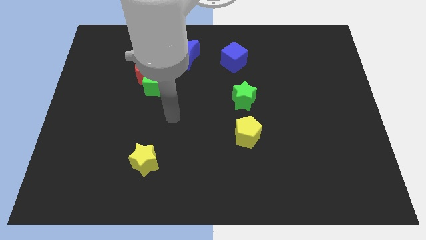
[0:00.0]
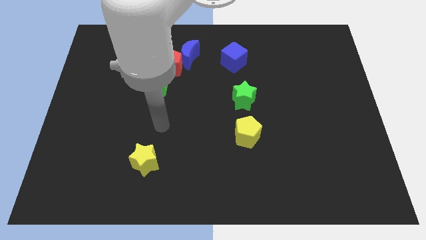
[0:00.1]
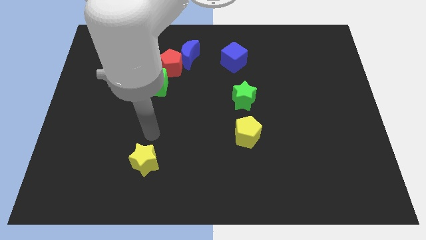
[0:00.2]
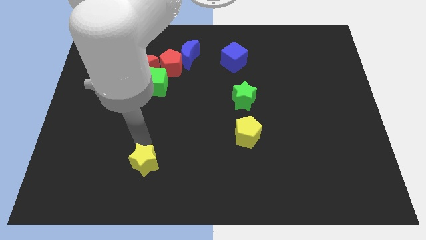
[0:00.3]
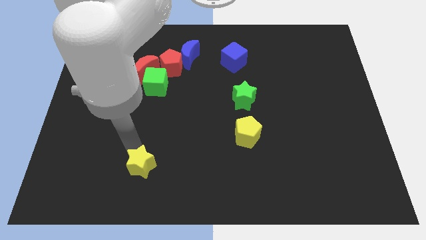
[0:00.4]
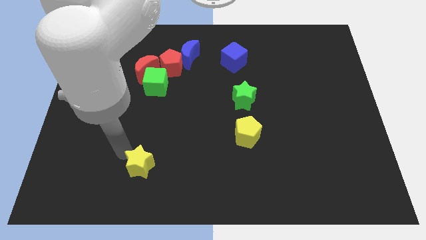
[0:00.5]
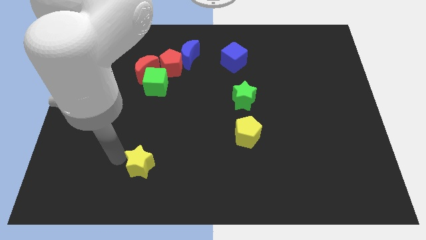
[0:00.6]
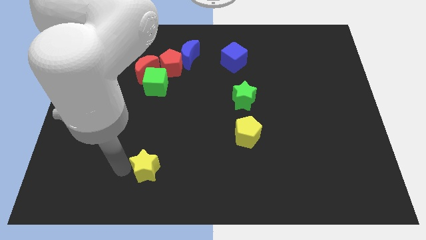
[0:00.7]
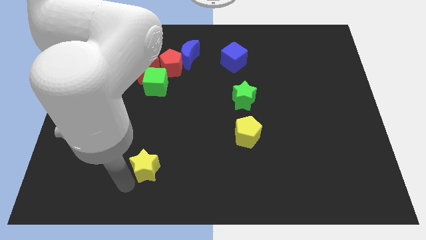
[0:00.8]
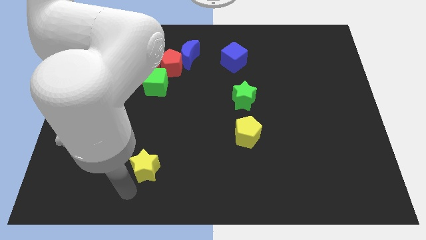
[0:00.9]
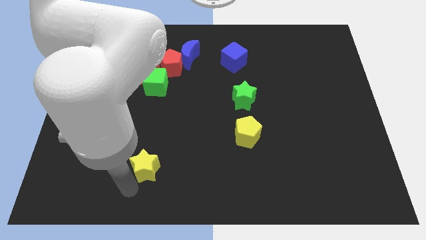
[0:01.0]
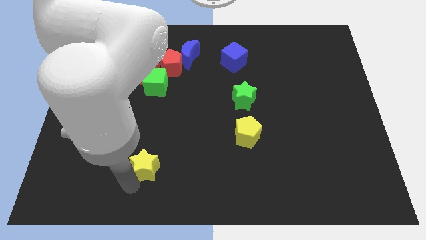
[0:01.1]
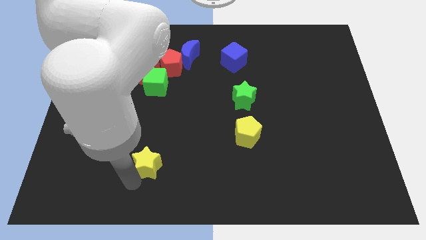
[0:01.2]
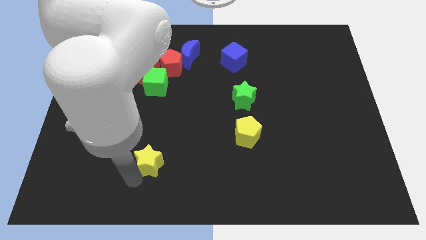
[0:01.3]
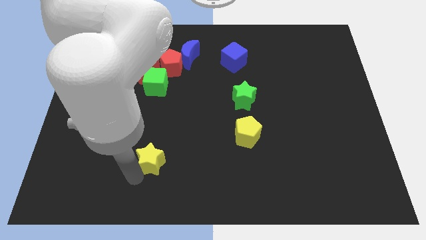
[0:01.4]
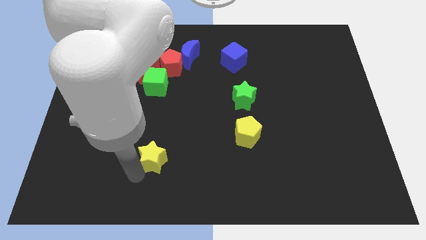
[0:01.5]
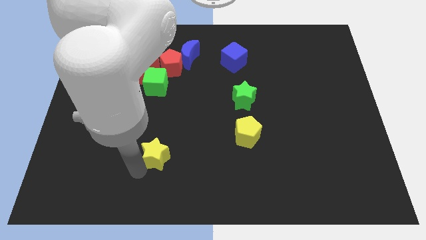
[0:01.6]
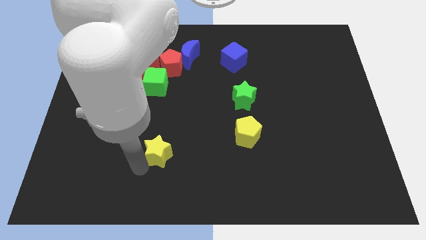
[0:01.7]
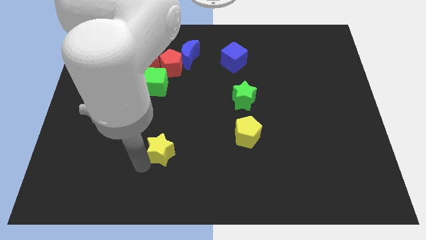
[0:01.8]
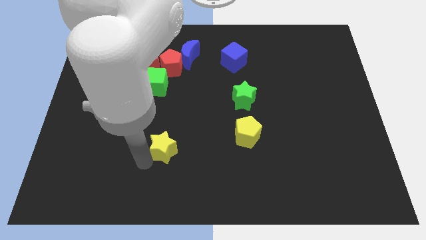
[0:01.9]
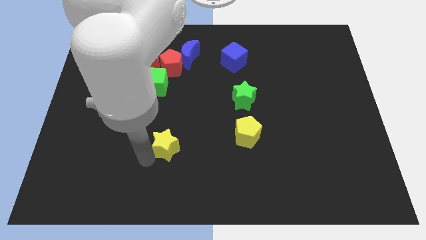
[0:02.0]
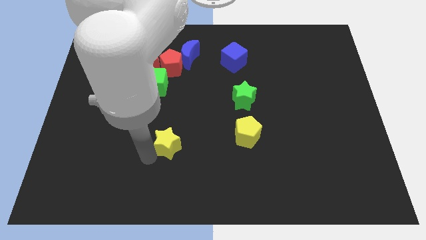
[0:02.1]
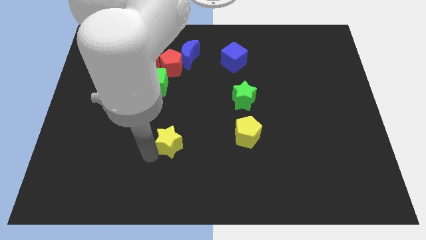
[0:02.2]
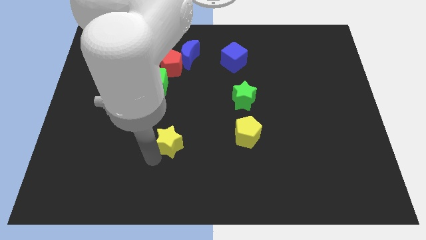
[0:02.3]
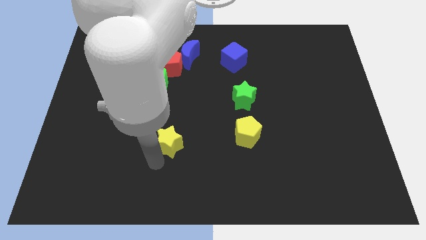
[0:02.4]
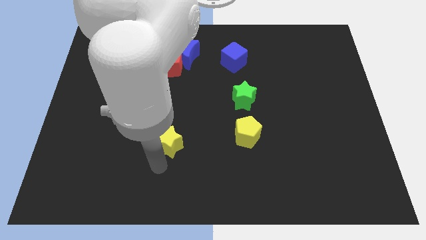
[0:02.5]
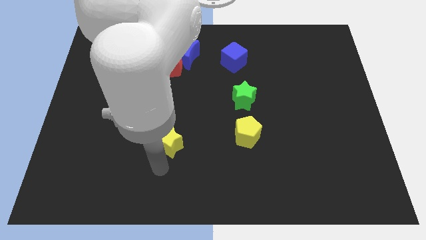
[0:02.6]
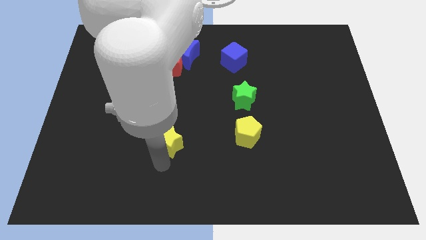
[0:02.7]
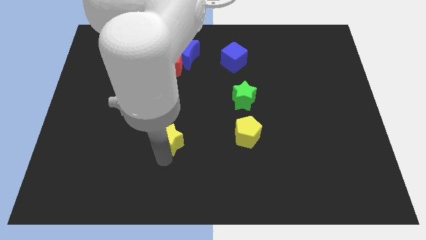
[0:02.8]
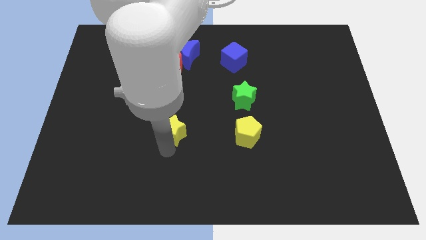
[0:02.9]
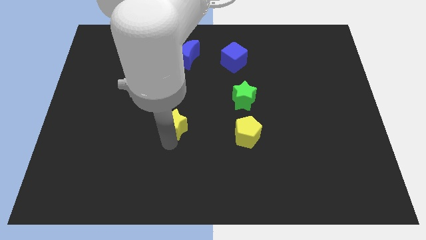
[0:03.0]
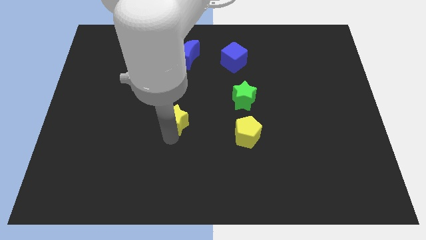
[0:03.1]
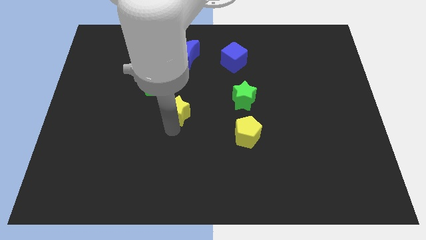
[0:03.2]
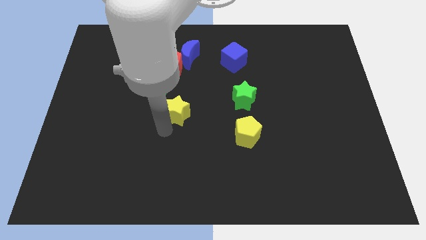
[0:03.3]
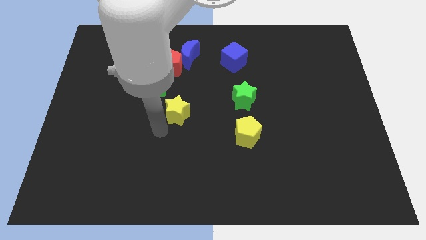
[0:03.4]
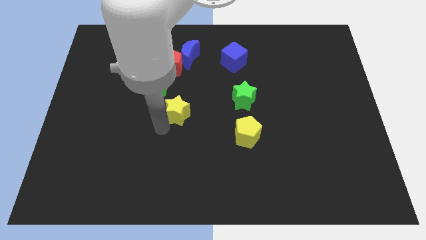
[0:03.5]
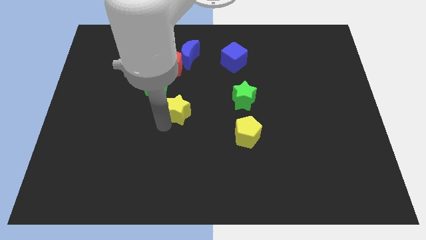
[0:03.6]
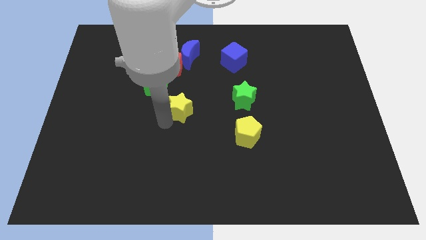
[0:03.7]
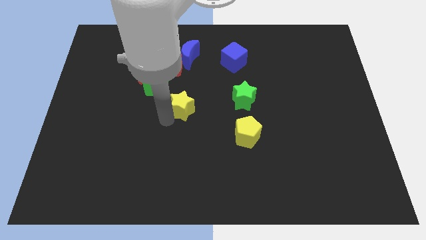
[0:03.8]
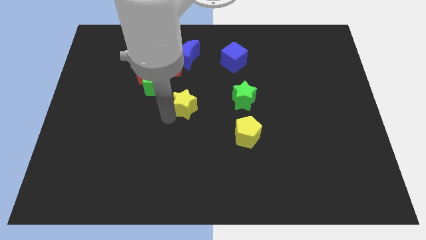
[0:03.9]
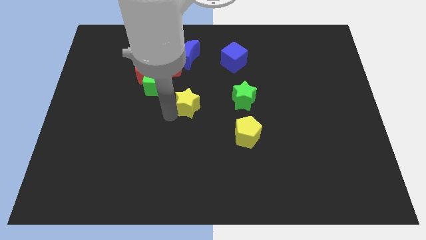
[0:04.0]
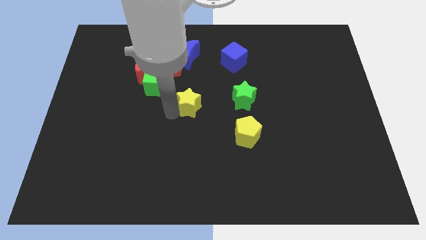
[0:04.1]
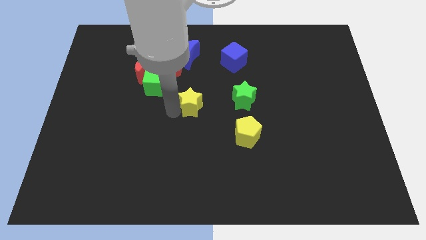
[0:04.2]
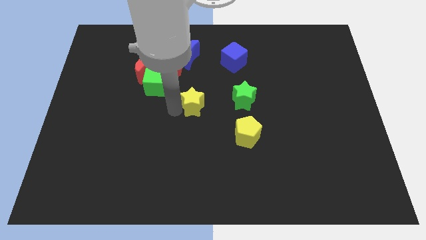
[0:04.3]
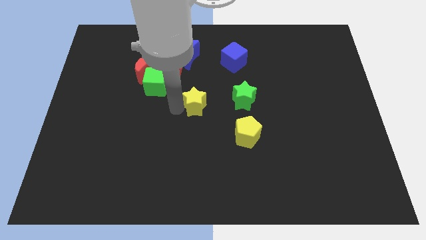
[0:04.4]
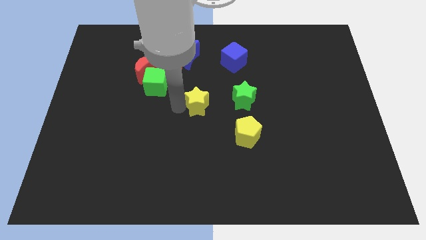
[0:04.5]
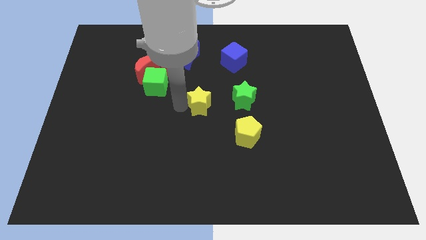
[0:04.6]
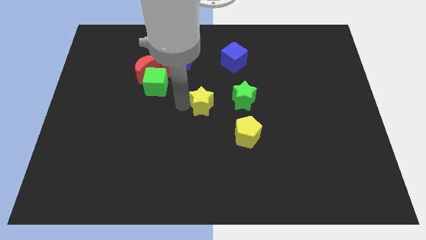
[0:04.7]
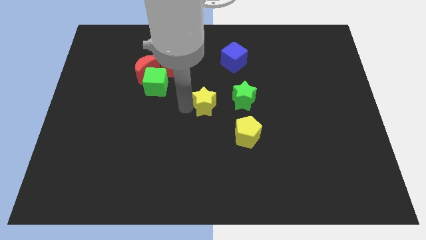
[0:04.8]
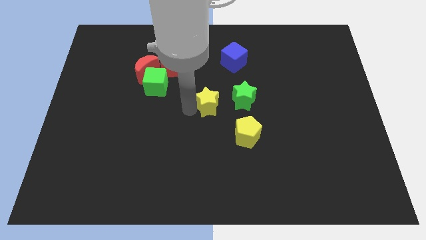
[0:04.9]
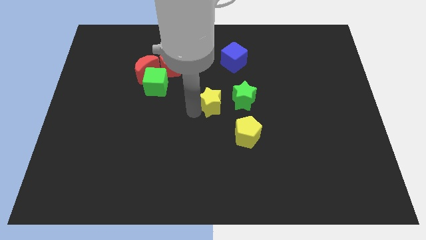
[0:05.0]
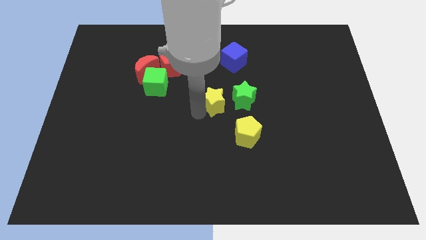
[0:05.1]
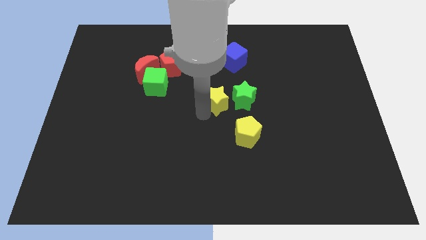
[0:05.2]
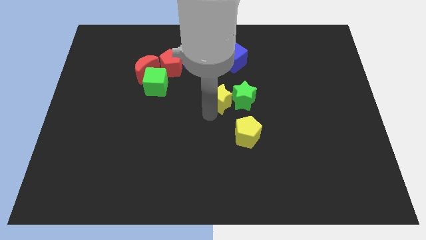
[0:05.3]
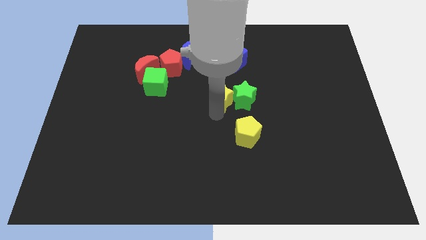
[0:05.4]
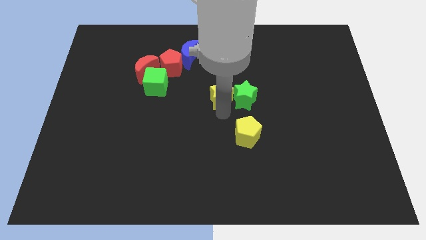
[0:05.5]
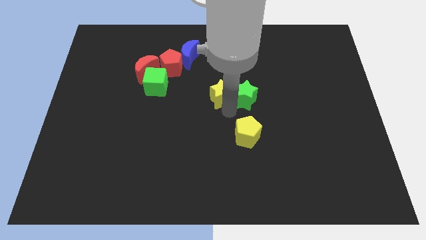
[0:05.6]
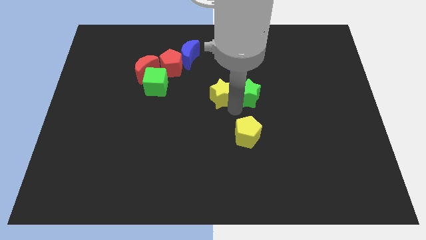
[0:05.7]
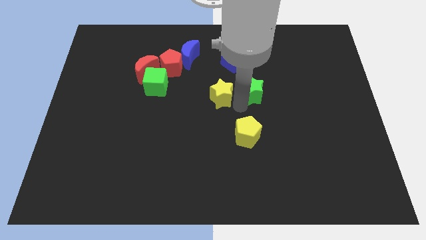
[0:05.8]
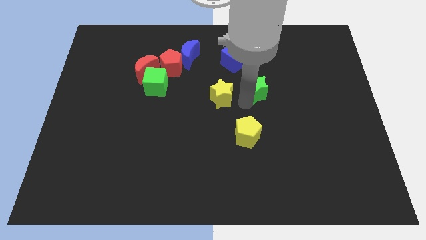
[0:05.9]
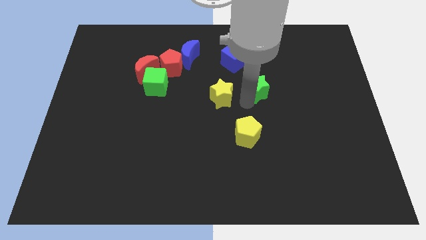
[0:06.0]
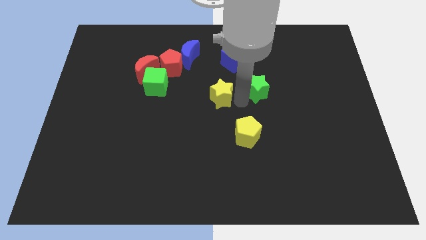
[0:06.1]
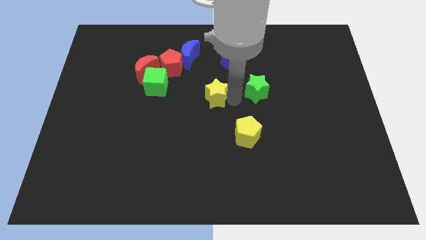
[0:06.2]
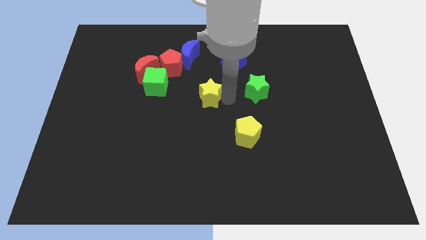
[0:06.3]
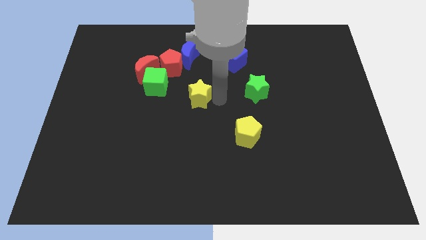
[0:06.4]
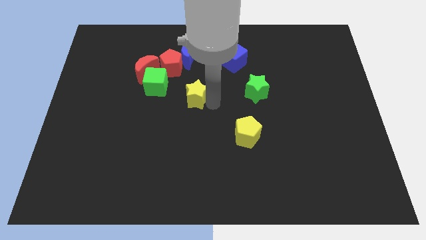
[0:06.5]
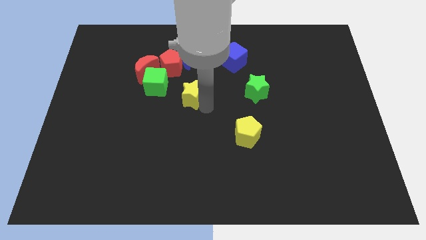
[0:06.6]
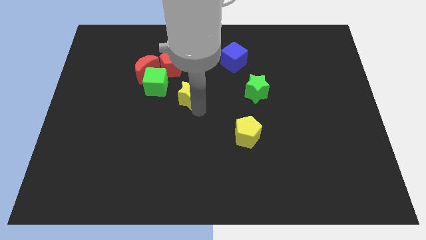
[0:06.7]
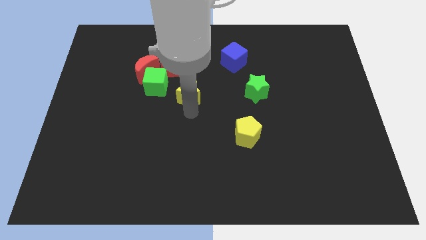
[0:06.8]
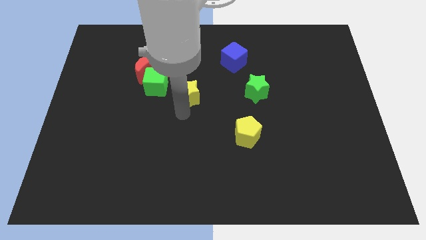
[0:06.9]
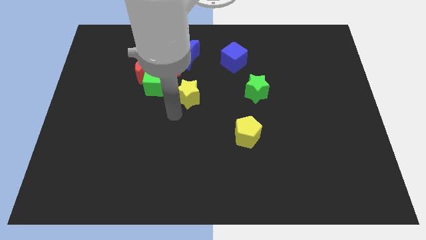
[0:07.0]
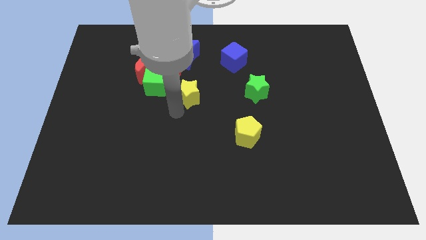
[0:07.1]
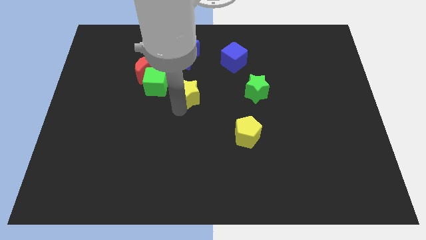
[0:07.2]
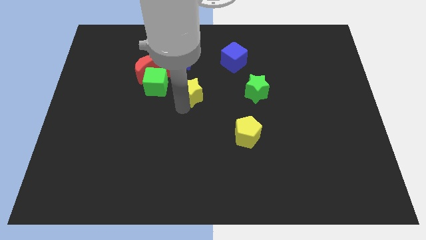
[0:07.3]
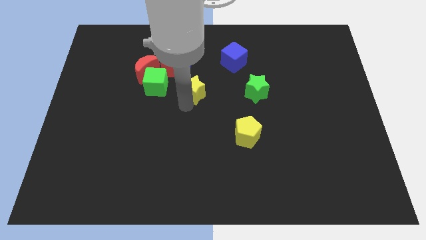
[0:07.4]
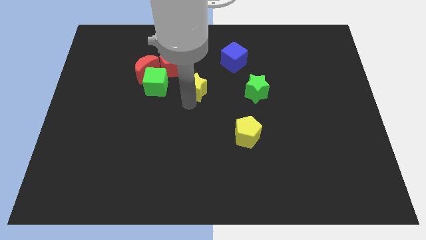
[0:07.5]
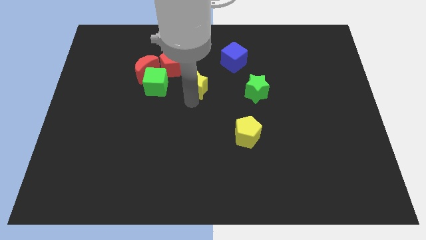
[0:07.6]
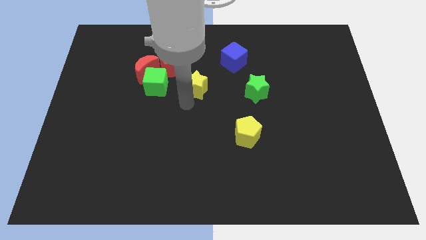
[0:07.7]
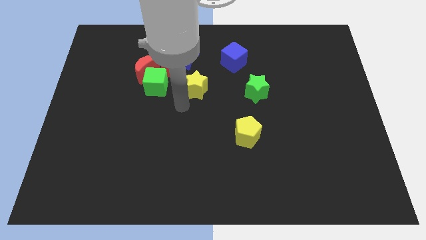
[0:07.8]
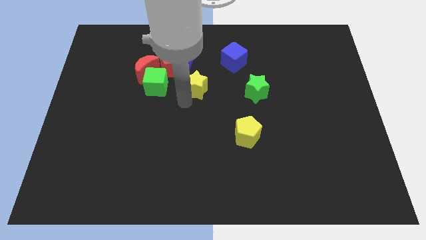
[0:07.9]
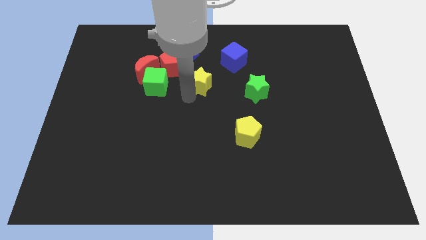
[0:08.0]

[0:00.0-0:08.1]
slide the yellow star diagonally down and to the right of the blue moon

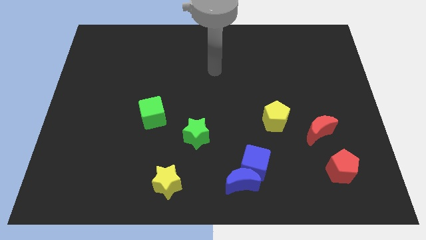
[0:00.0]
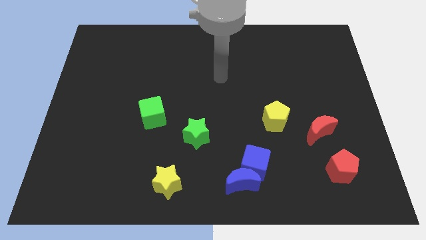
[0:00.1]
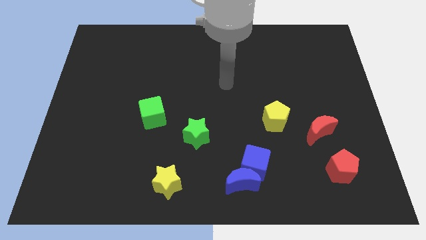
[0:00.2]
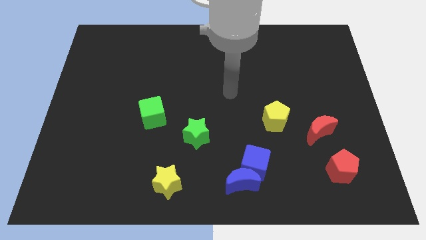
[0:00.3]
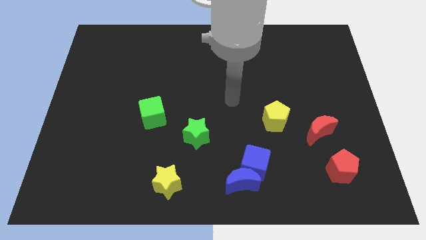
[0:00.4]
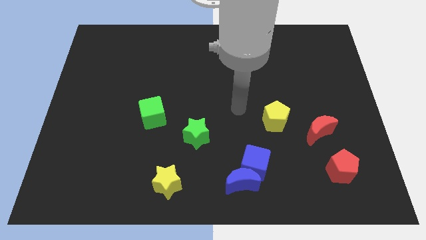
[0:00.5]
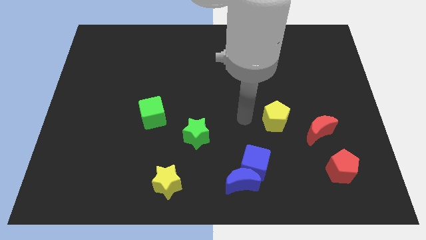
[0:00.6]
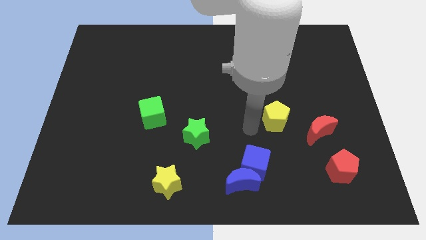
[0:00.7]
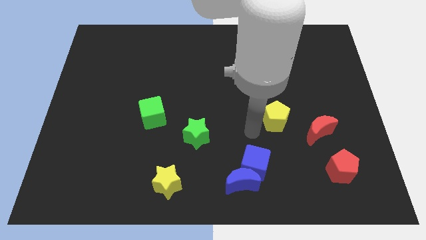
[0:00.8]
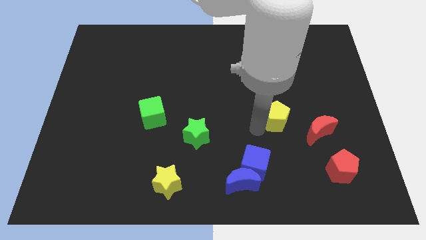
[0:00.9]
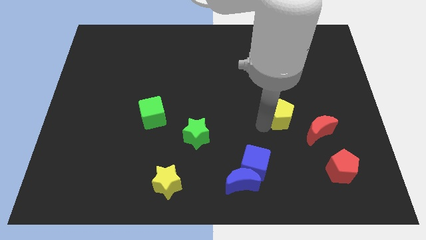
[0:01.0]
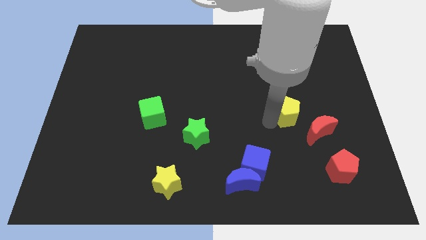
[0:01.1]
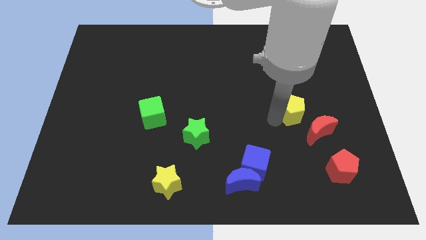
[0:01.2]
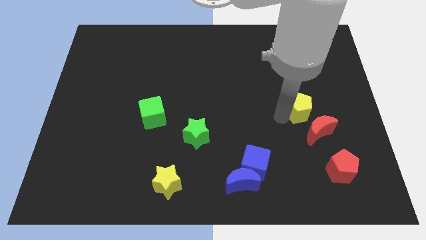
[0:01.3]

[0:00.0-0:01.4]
slide the yellow pentagon to the top side of the red moon
